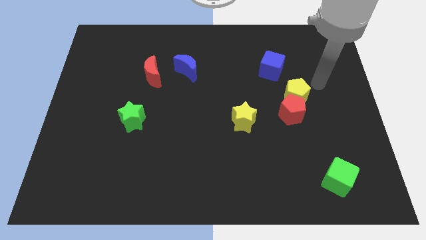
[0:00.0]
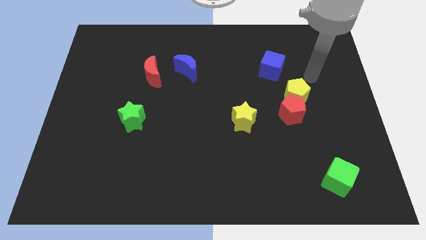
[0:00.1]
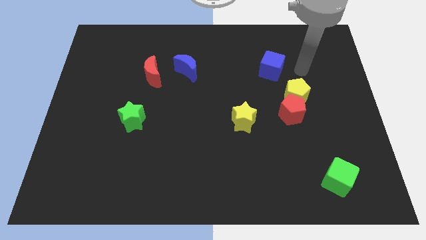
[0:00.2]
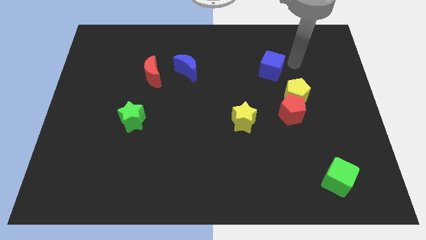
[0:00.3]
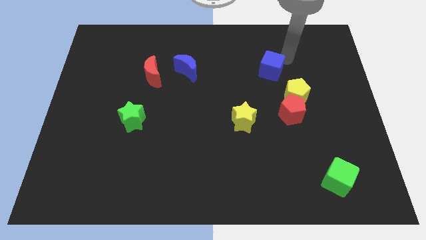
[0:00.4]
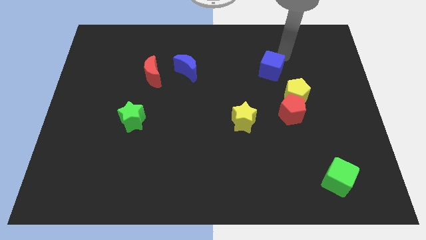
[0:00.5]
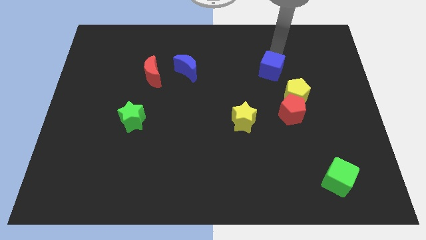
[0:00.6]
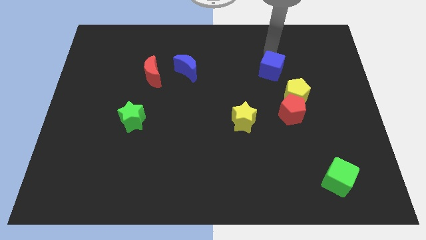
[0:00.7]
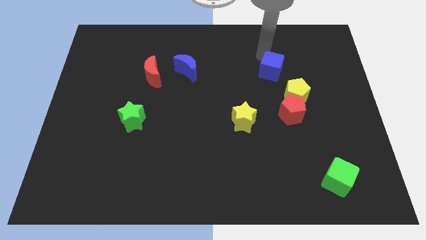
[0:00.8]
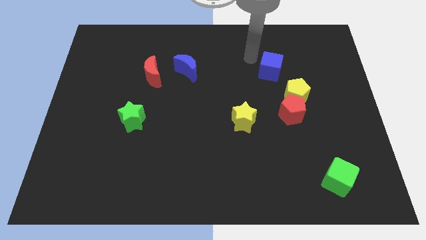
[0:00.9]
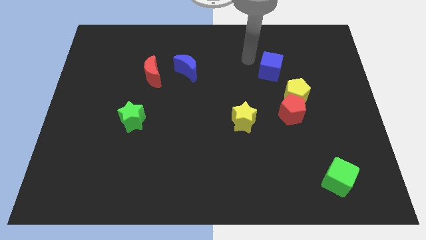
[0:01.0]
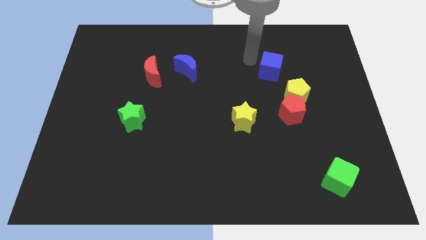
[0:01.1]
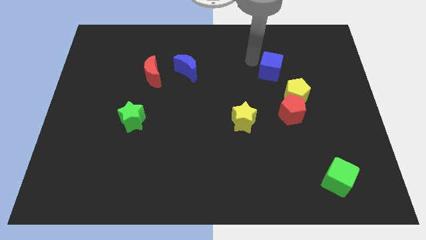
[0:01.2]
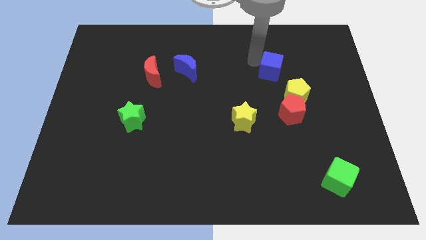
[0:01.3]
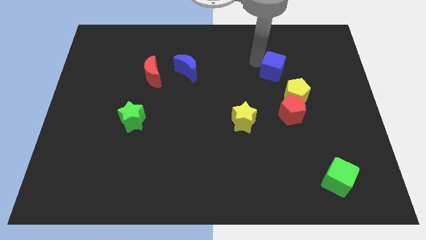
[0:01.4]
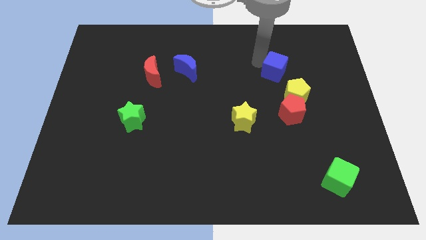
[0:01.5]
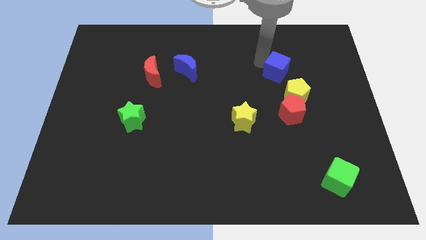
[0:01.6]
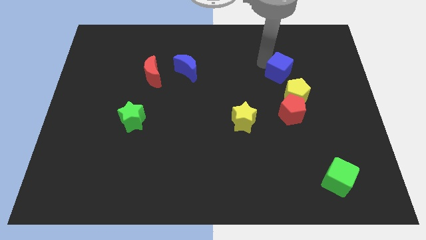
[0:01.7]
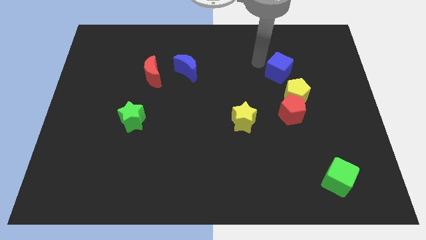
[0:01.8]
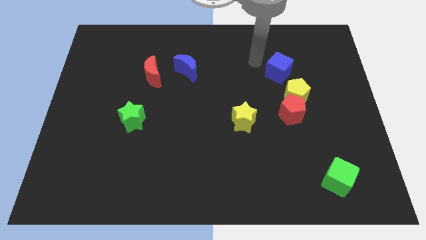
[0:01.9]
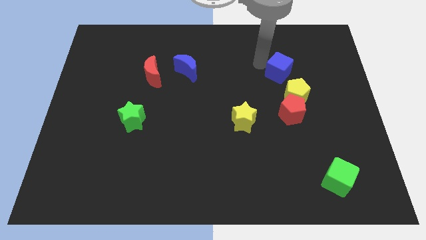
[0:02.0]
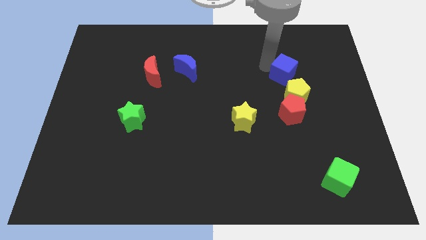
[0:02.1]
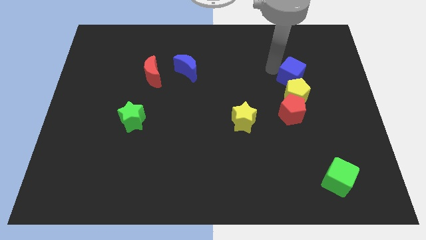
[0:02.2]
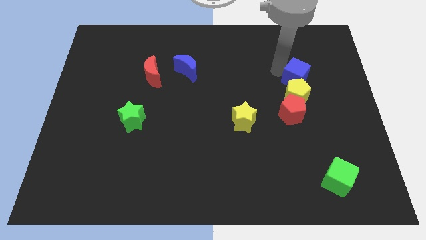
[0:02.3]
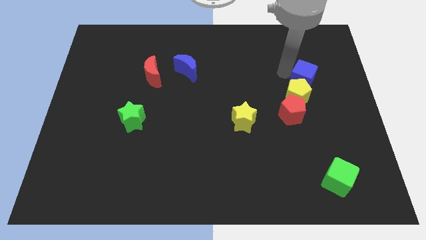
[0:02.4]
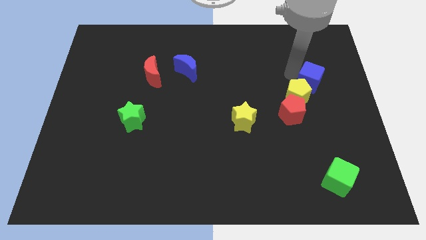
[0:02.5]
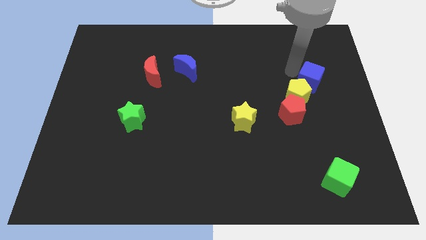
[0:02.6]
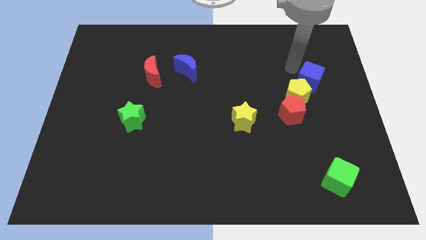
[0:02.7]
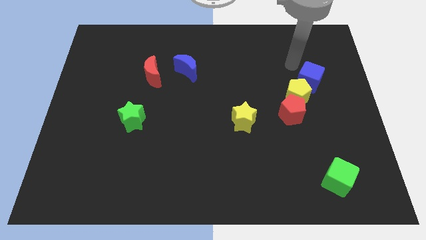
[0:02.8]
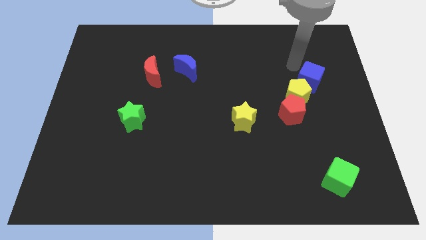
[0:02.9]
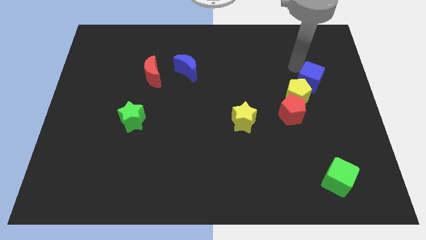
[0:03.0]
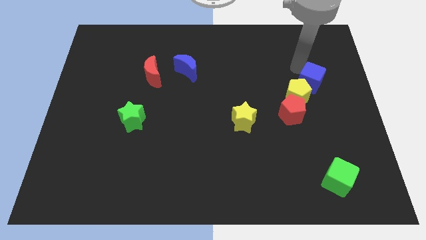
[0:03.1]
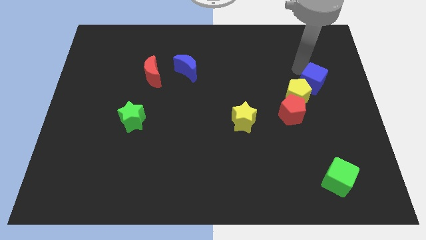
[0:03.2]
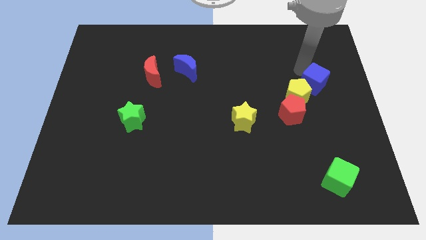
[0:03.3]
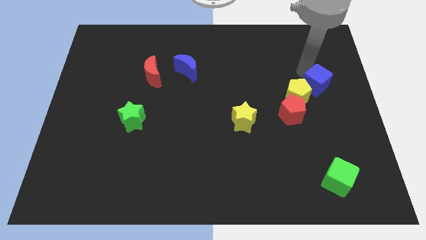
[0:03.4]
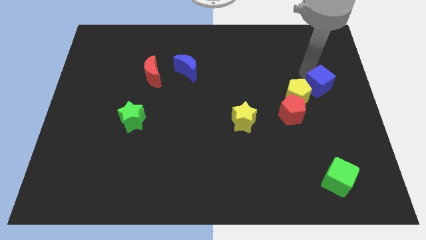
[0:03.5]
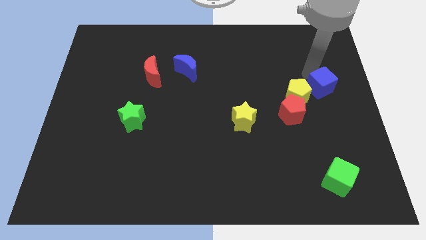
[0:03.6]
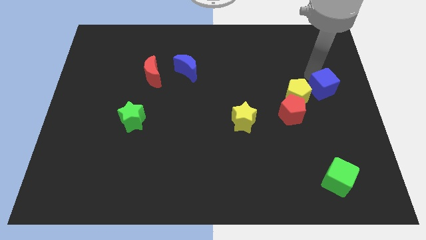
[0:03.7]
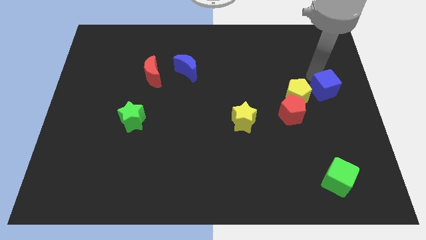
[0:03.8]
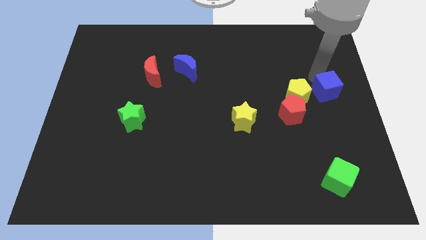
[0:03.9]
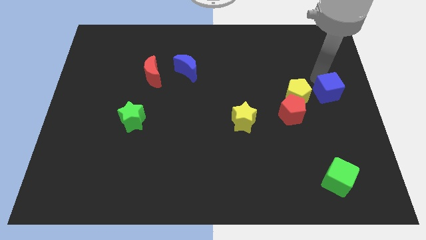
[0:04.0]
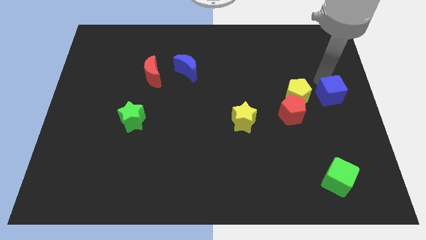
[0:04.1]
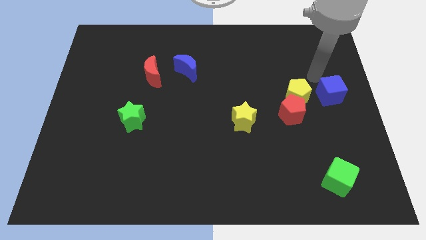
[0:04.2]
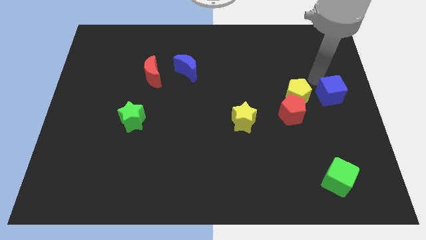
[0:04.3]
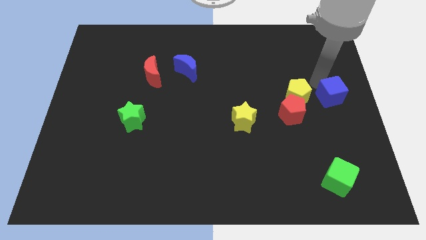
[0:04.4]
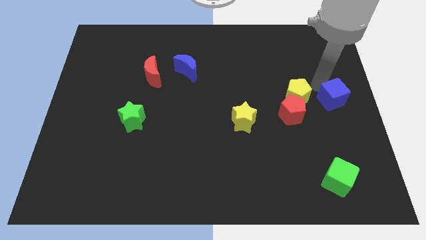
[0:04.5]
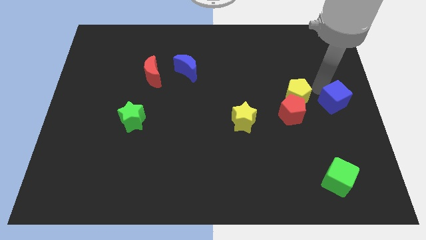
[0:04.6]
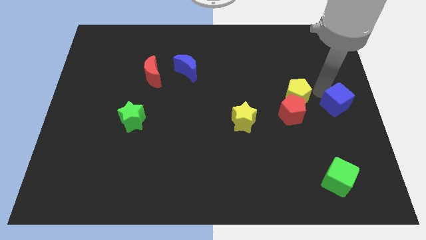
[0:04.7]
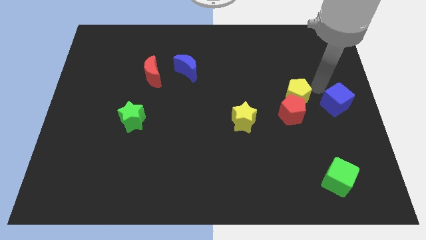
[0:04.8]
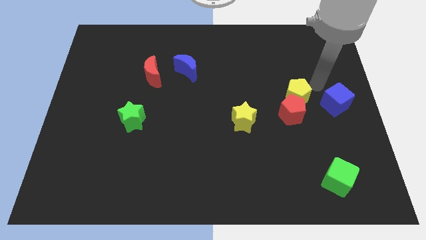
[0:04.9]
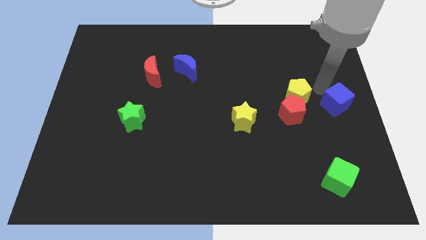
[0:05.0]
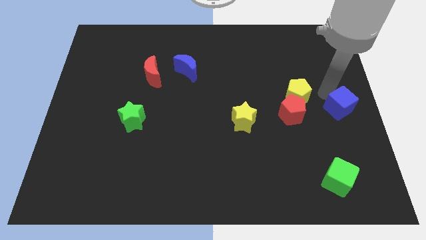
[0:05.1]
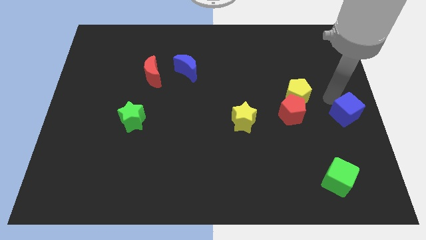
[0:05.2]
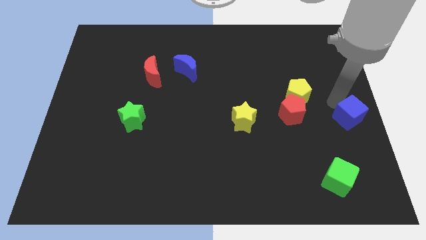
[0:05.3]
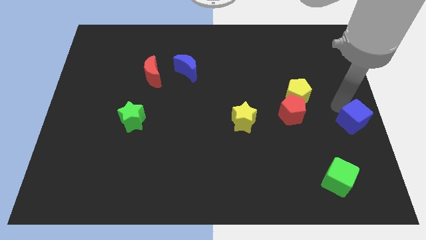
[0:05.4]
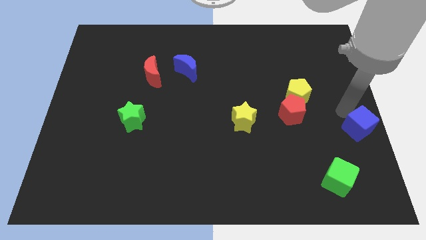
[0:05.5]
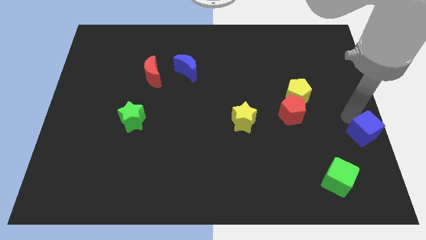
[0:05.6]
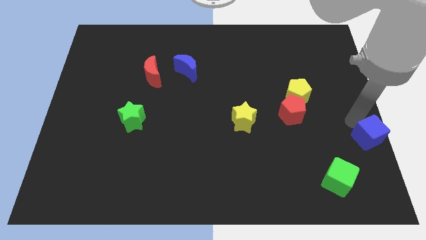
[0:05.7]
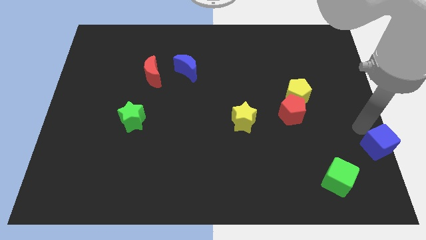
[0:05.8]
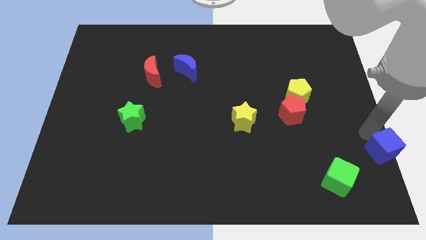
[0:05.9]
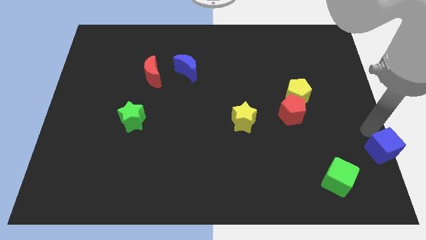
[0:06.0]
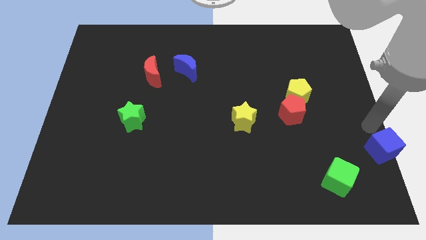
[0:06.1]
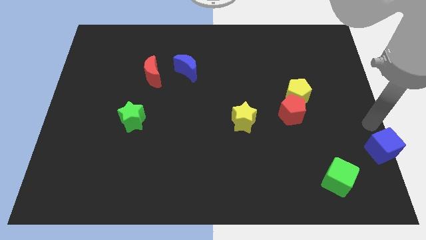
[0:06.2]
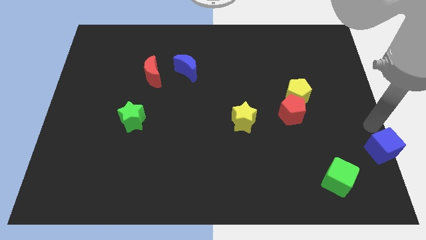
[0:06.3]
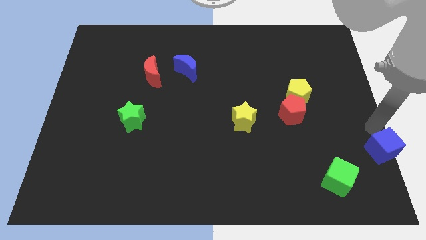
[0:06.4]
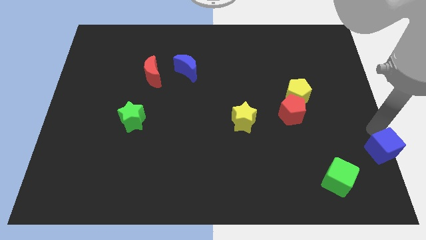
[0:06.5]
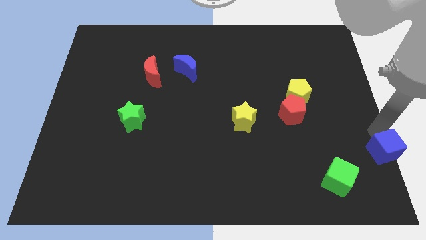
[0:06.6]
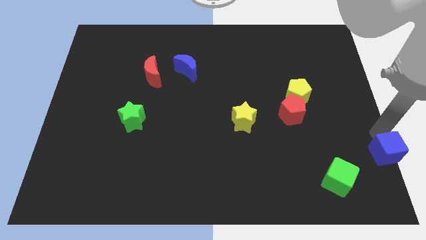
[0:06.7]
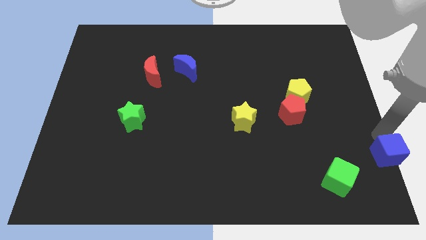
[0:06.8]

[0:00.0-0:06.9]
slide the blue cube to the bottom right corner
